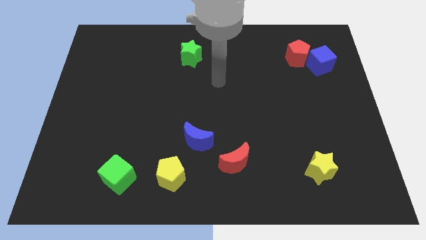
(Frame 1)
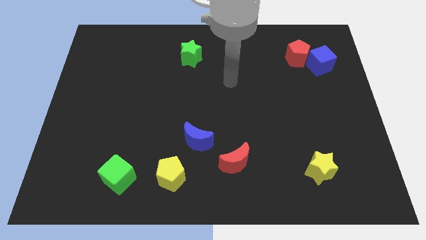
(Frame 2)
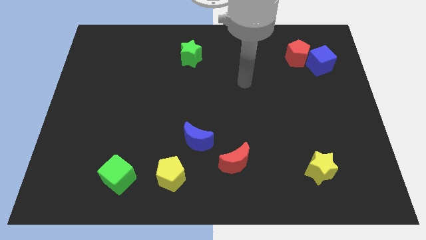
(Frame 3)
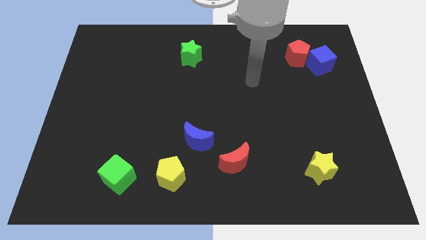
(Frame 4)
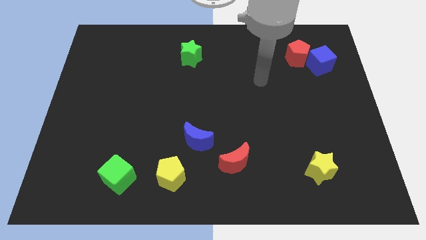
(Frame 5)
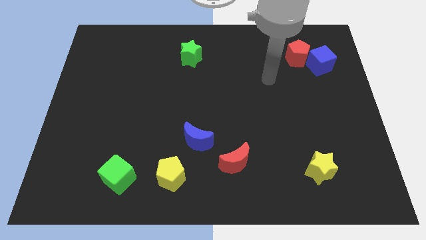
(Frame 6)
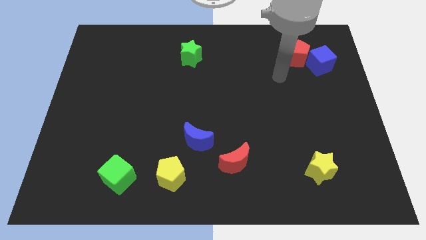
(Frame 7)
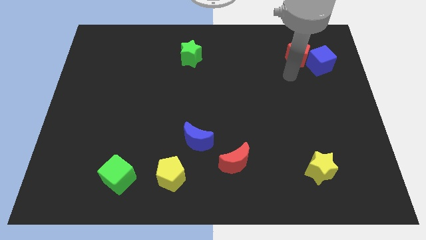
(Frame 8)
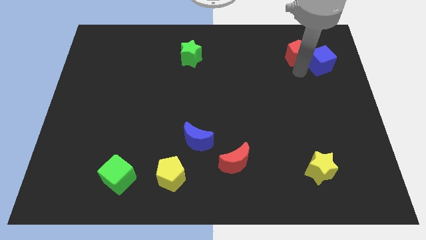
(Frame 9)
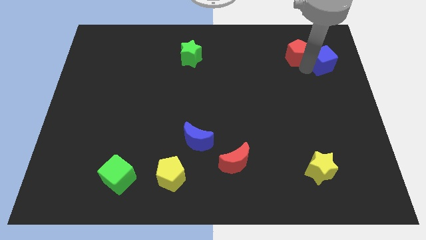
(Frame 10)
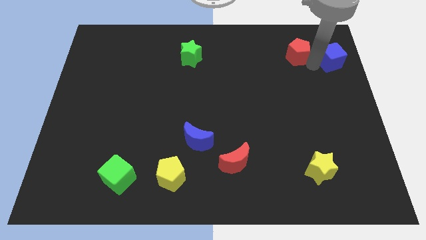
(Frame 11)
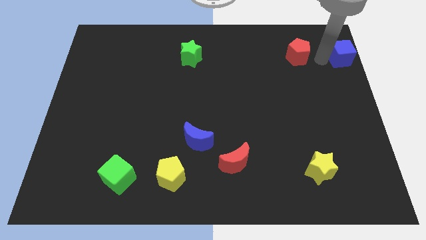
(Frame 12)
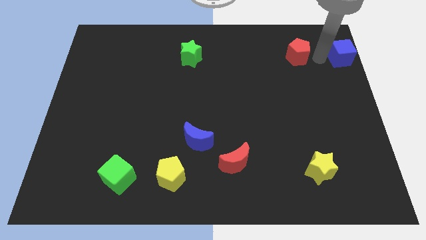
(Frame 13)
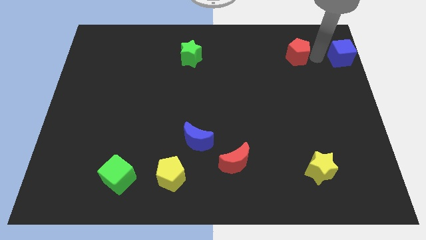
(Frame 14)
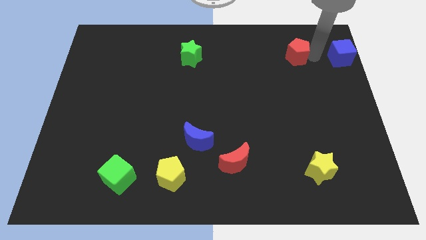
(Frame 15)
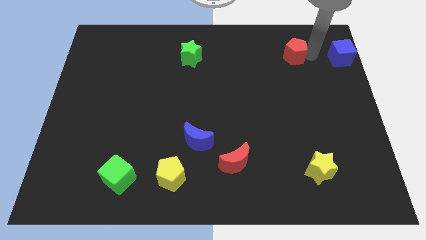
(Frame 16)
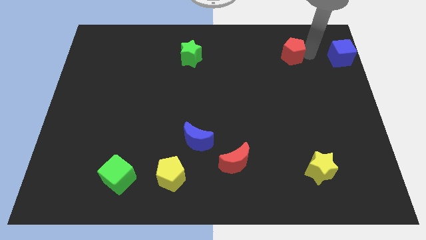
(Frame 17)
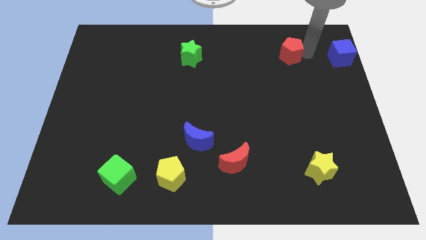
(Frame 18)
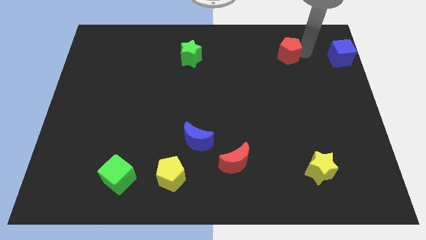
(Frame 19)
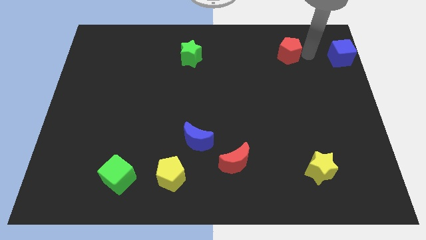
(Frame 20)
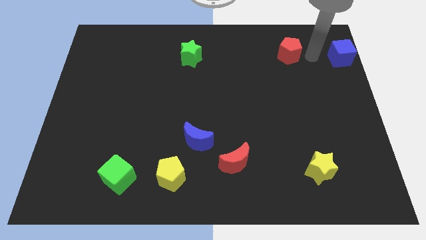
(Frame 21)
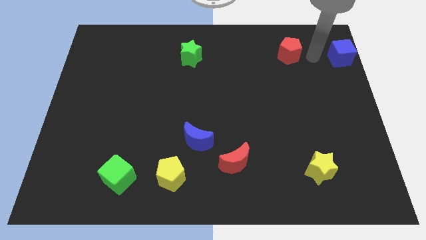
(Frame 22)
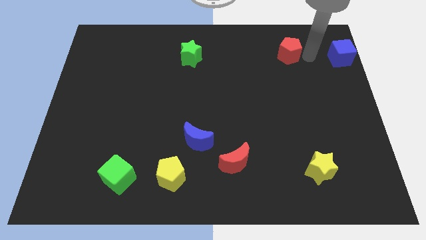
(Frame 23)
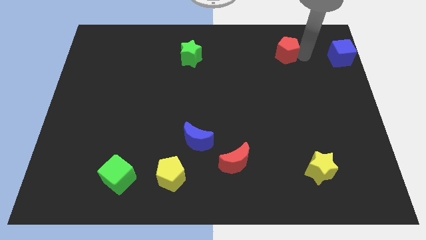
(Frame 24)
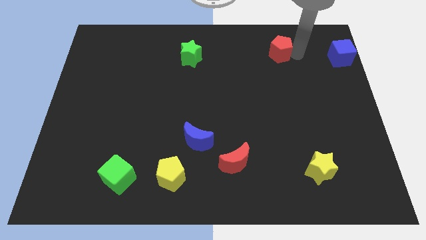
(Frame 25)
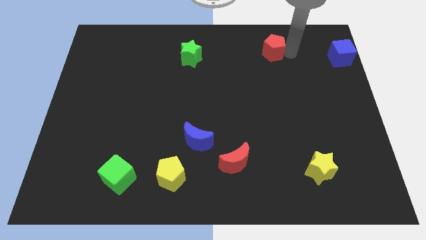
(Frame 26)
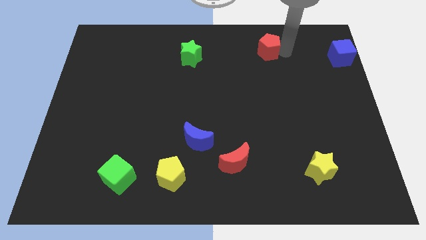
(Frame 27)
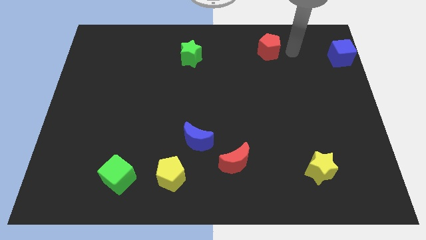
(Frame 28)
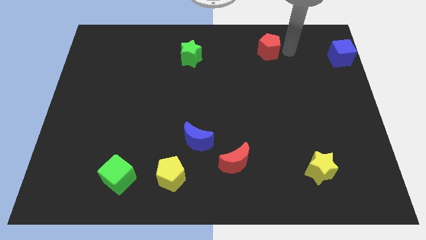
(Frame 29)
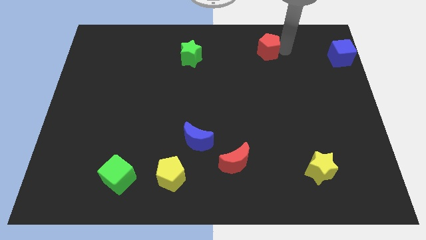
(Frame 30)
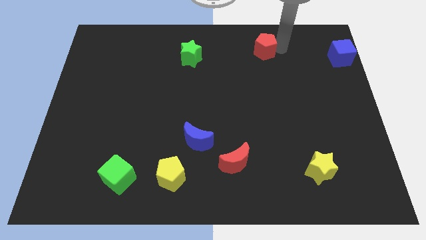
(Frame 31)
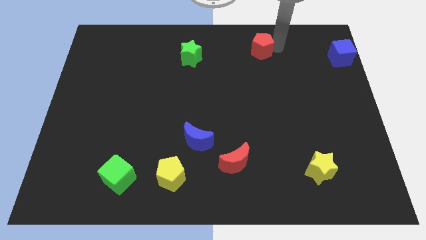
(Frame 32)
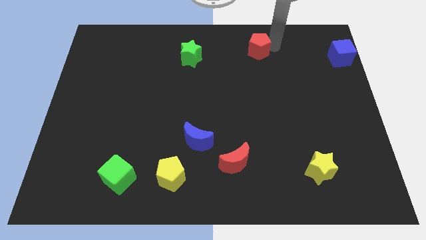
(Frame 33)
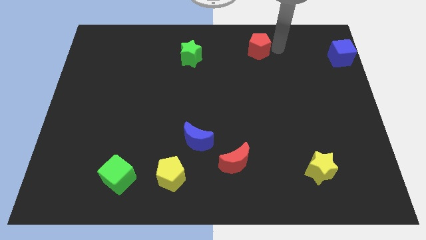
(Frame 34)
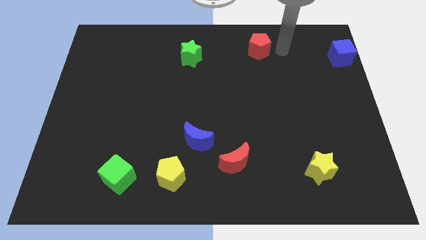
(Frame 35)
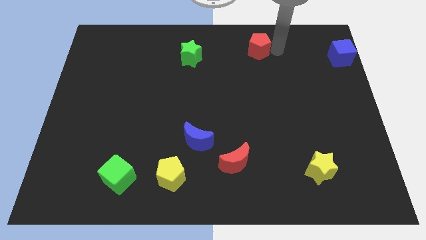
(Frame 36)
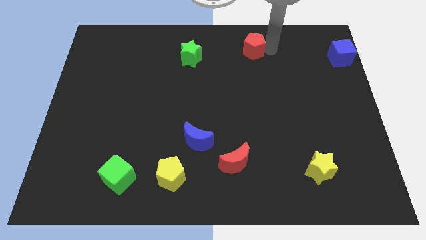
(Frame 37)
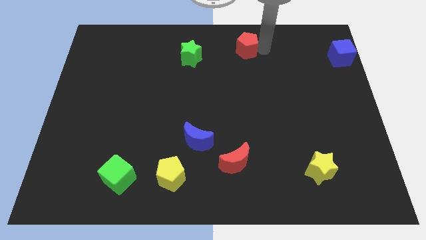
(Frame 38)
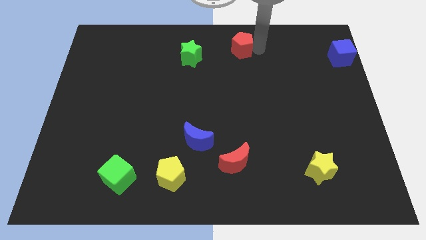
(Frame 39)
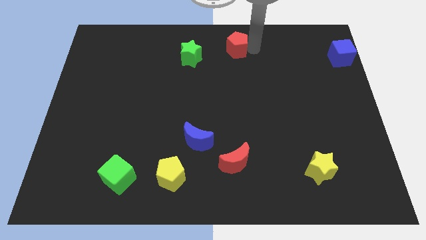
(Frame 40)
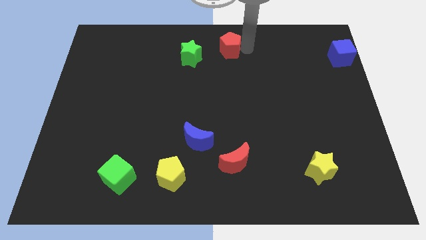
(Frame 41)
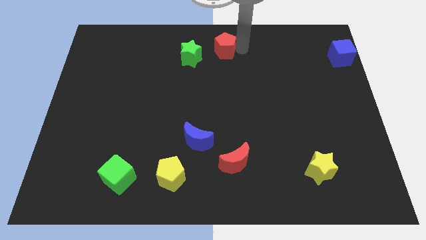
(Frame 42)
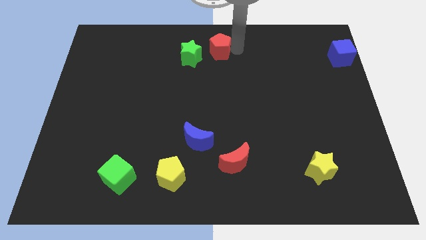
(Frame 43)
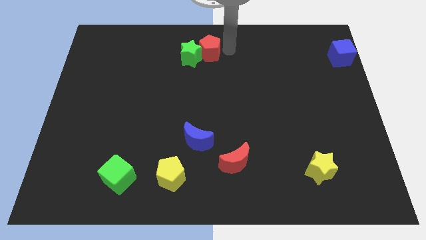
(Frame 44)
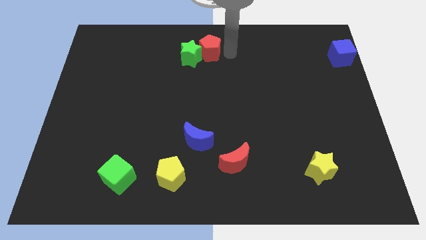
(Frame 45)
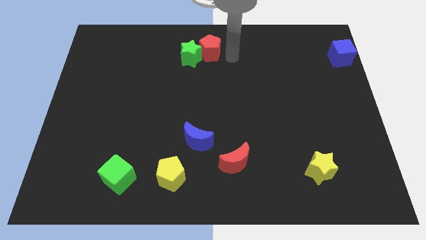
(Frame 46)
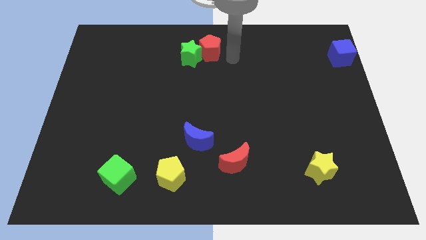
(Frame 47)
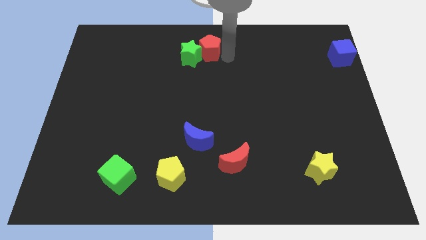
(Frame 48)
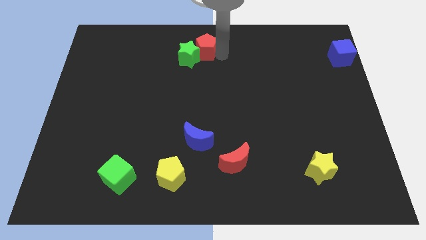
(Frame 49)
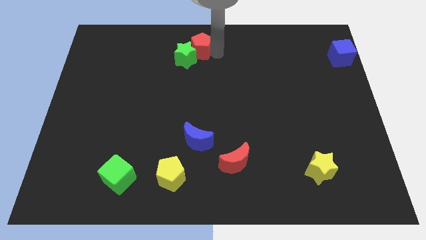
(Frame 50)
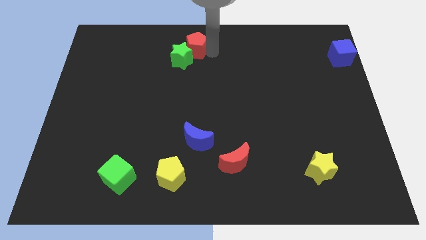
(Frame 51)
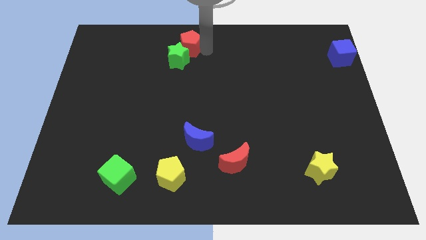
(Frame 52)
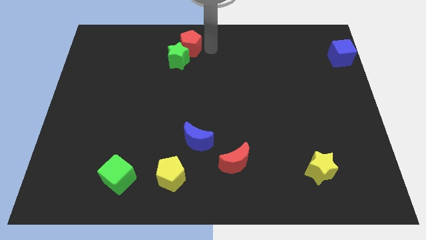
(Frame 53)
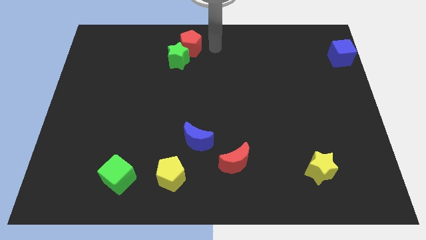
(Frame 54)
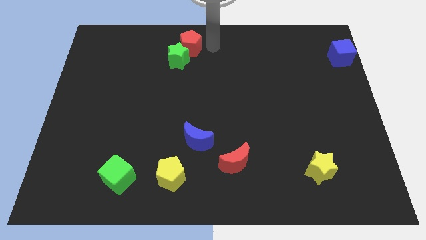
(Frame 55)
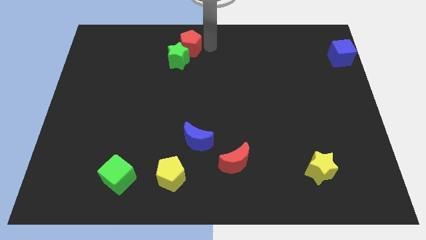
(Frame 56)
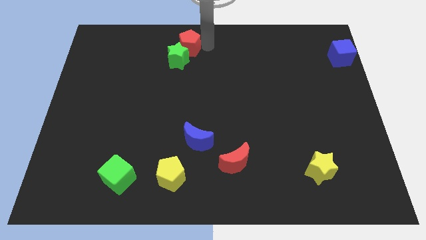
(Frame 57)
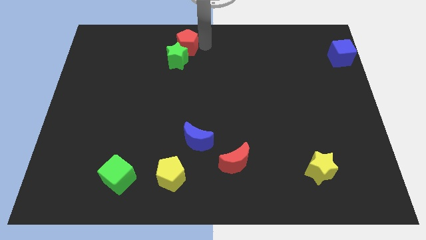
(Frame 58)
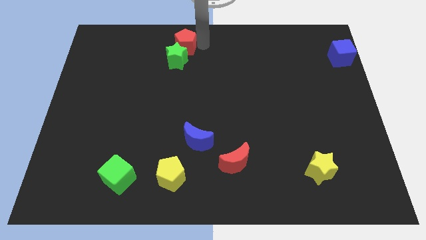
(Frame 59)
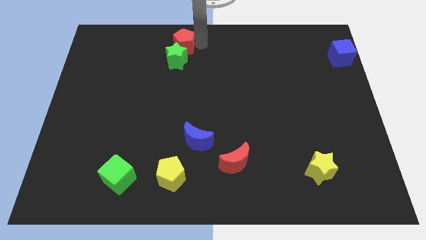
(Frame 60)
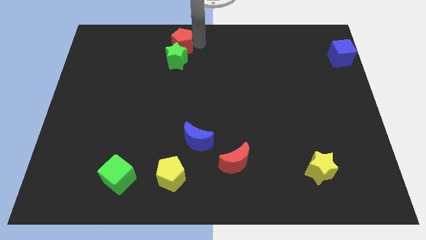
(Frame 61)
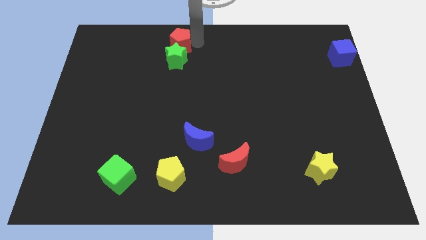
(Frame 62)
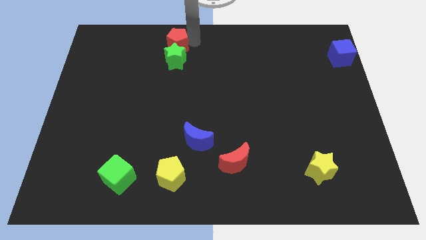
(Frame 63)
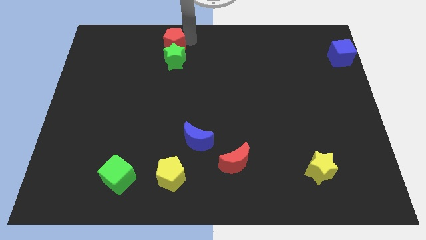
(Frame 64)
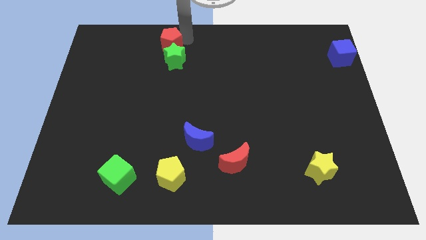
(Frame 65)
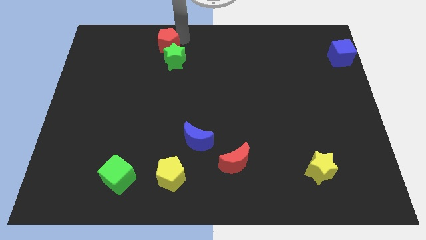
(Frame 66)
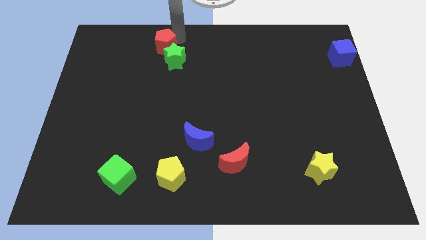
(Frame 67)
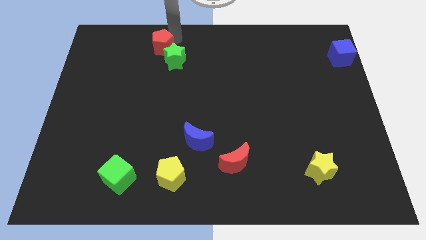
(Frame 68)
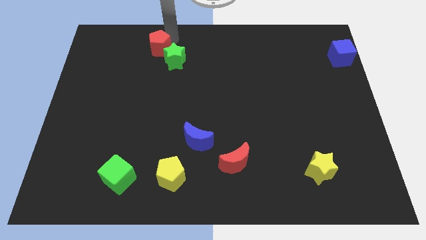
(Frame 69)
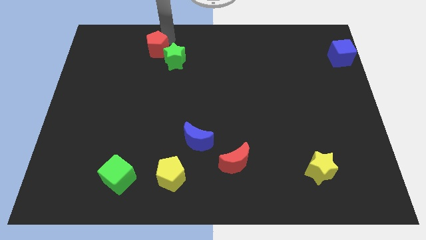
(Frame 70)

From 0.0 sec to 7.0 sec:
put the red pentagon just left of the green star
